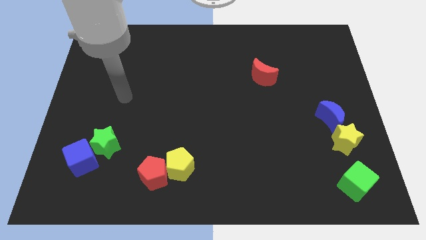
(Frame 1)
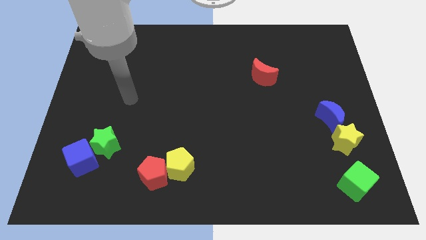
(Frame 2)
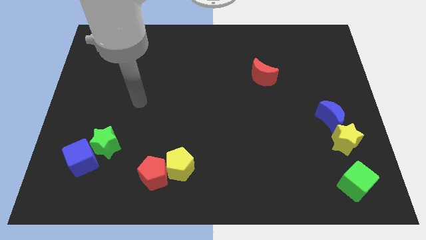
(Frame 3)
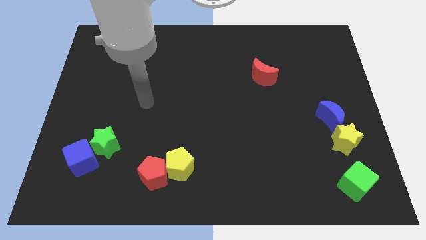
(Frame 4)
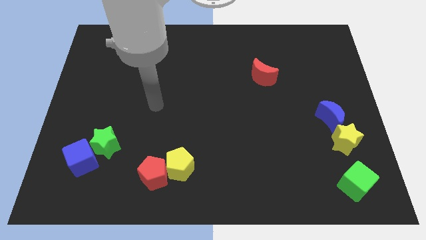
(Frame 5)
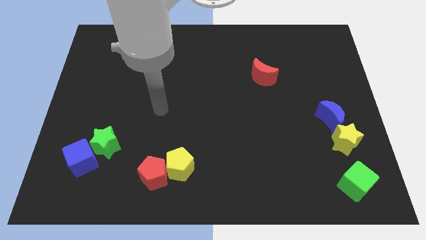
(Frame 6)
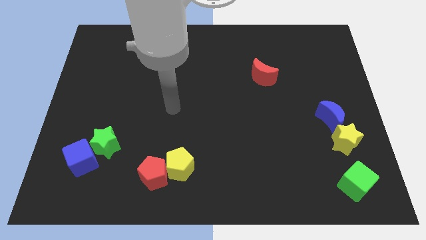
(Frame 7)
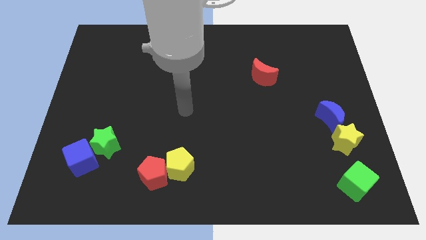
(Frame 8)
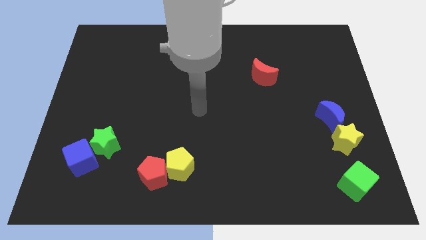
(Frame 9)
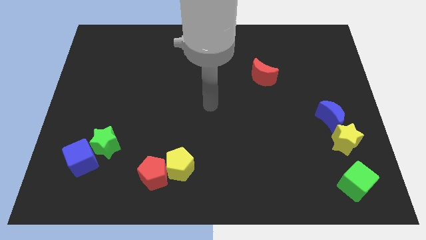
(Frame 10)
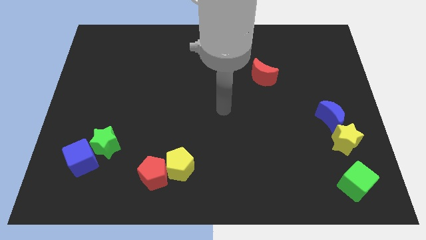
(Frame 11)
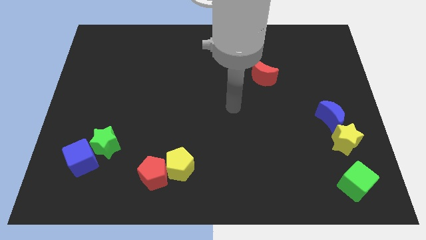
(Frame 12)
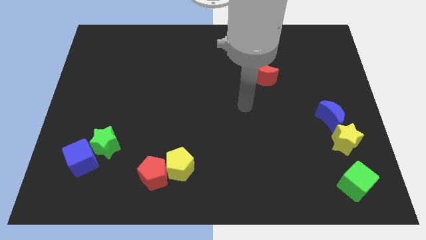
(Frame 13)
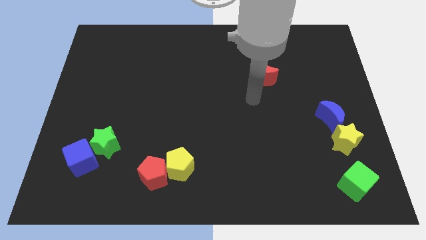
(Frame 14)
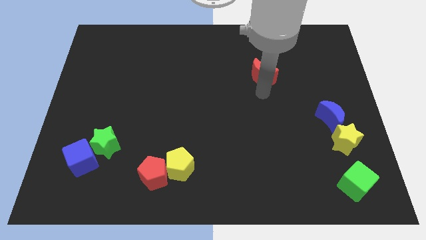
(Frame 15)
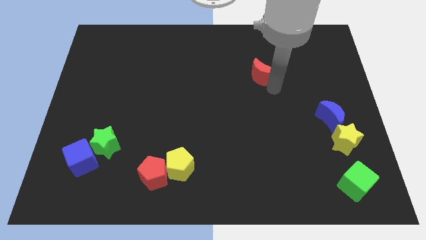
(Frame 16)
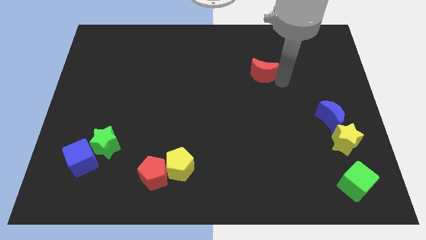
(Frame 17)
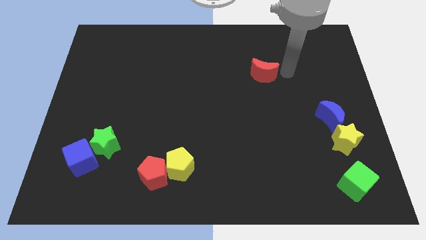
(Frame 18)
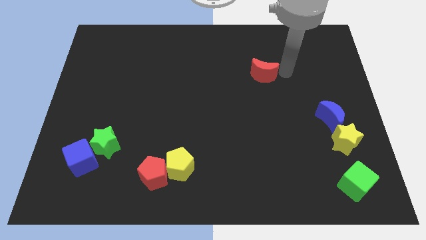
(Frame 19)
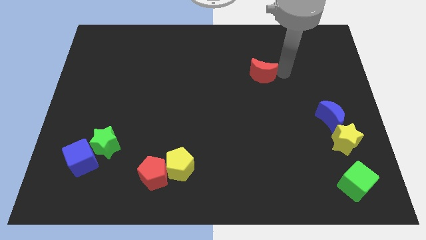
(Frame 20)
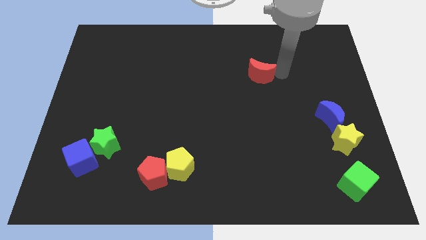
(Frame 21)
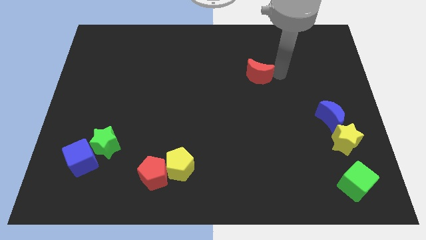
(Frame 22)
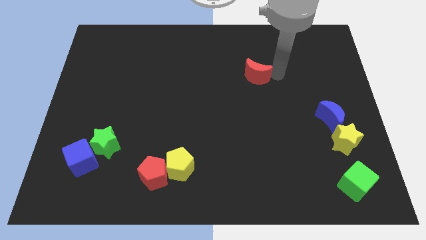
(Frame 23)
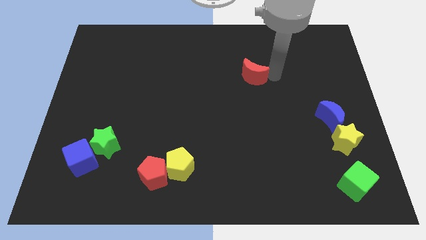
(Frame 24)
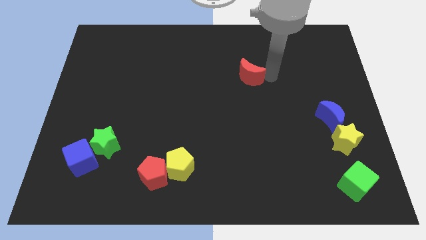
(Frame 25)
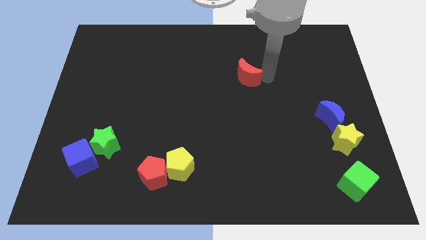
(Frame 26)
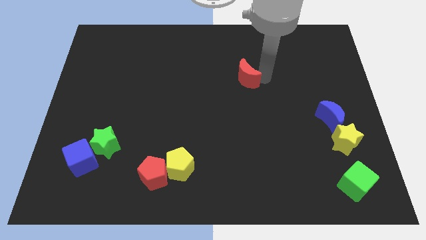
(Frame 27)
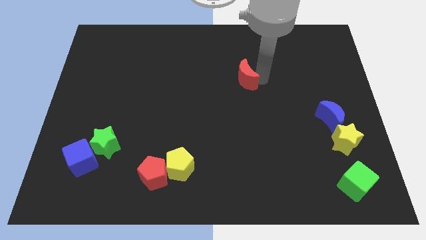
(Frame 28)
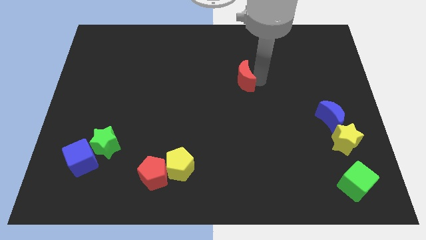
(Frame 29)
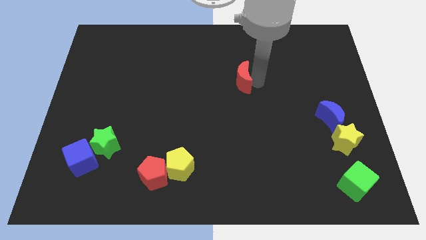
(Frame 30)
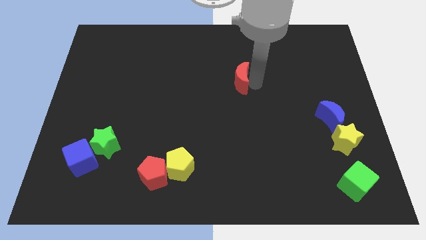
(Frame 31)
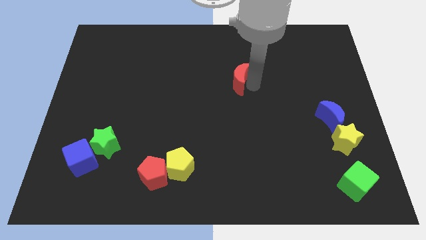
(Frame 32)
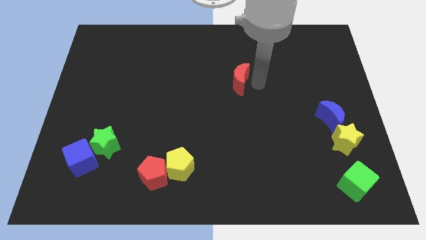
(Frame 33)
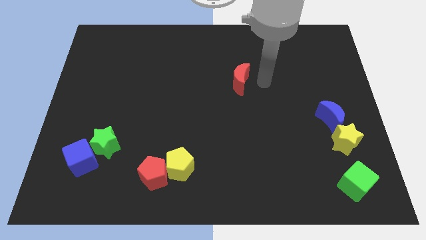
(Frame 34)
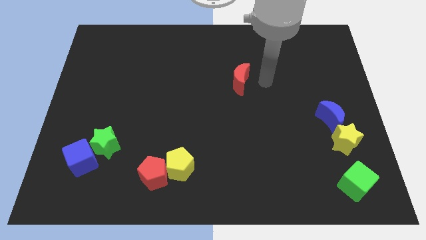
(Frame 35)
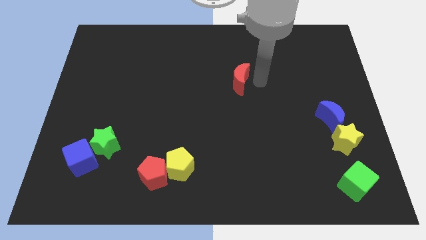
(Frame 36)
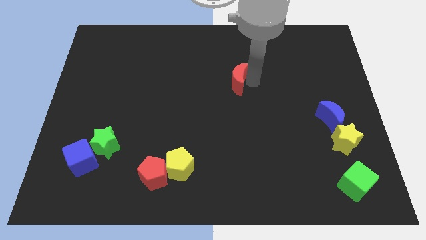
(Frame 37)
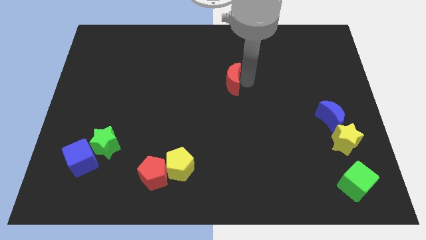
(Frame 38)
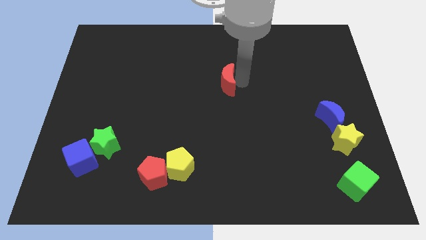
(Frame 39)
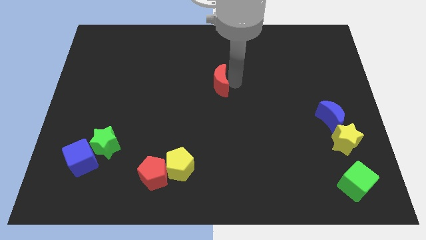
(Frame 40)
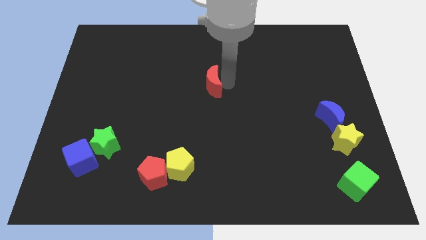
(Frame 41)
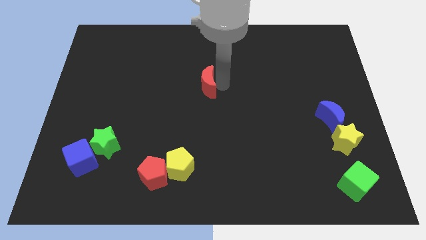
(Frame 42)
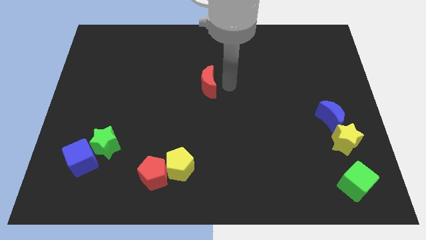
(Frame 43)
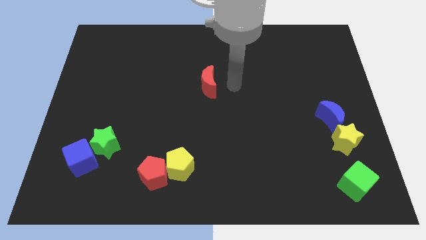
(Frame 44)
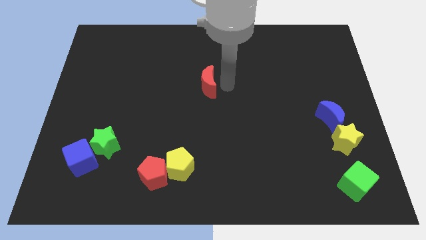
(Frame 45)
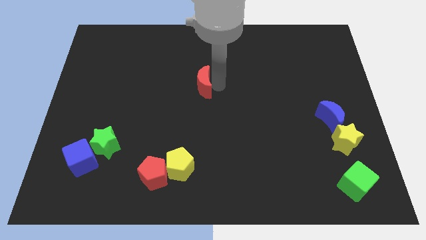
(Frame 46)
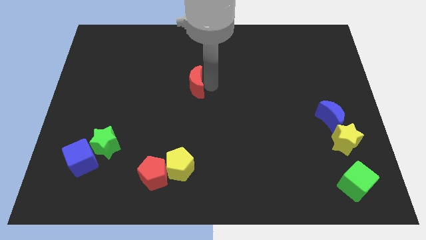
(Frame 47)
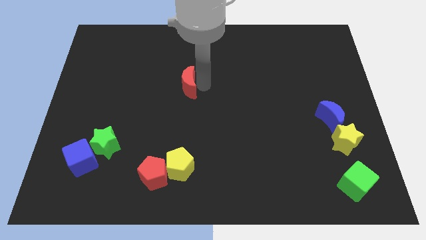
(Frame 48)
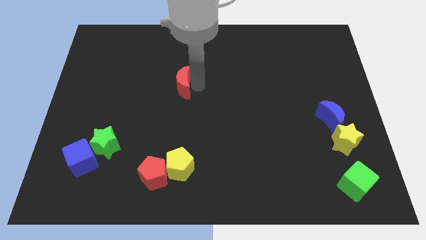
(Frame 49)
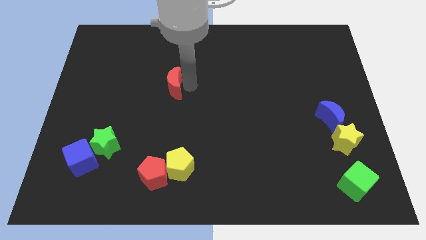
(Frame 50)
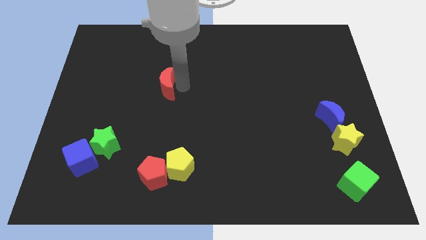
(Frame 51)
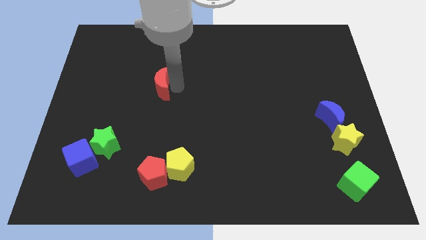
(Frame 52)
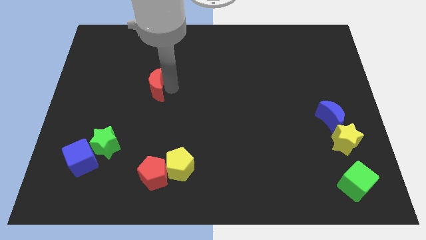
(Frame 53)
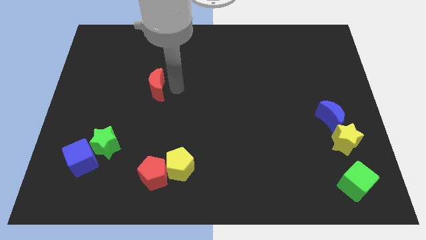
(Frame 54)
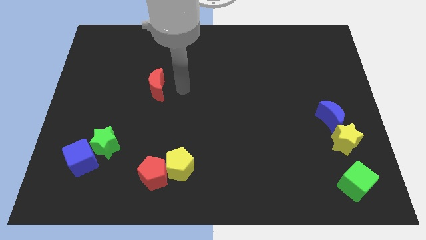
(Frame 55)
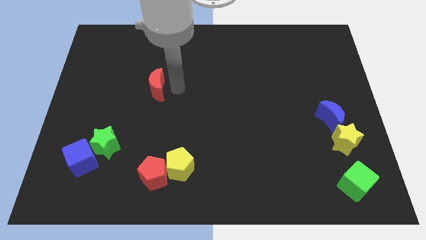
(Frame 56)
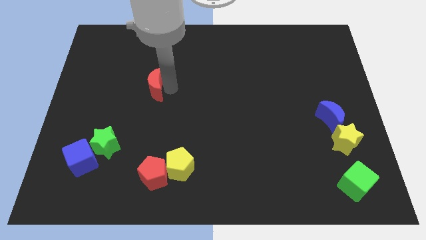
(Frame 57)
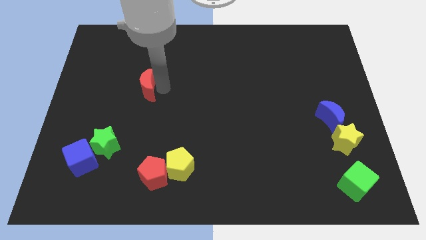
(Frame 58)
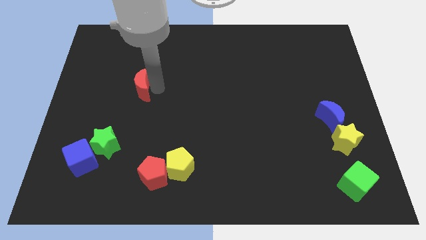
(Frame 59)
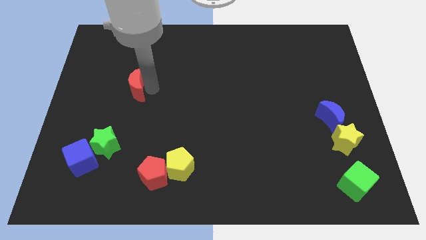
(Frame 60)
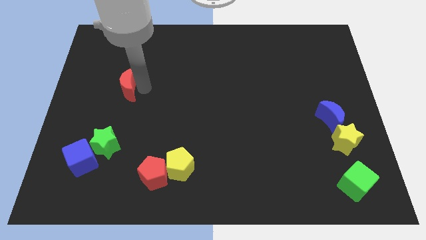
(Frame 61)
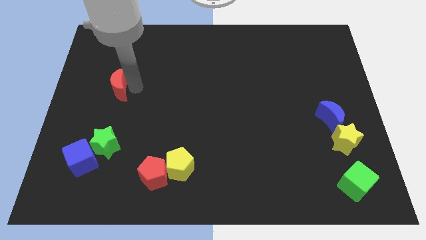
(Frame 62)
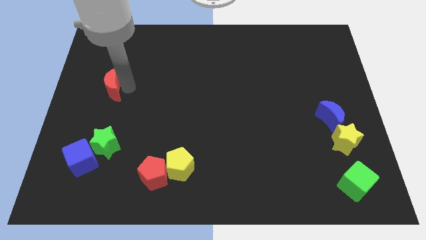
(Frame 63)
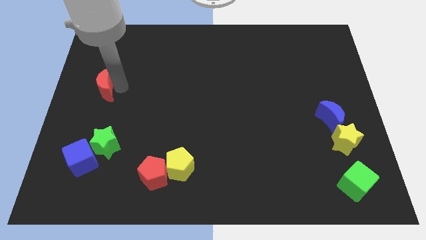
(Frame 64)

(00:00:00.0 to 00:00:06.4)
push the red moon to the left side of the board
